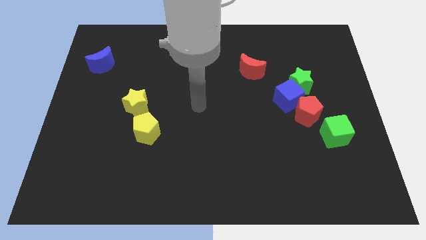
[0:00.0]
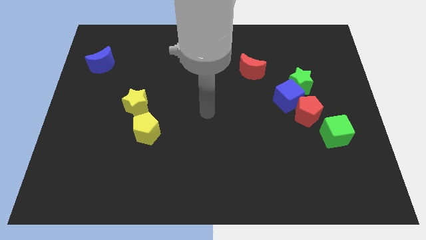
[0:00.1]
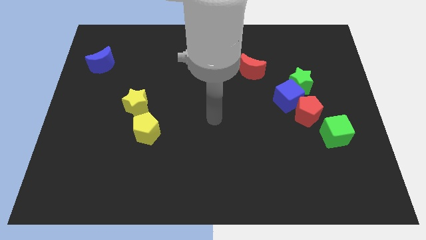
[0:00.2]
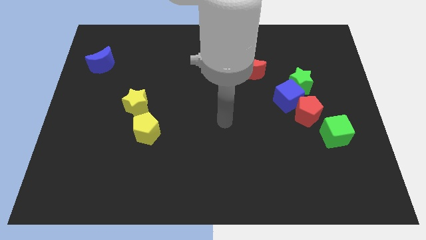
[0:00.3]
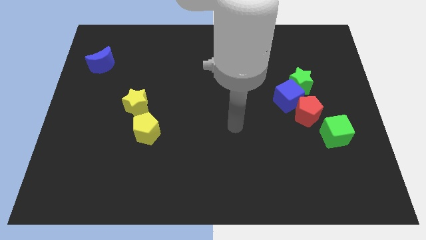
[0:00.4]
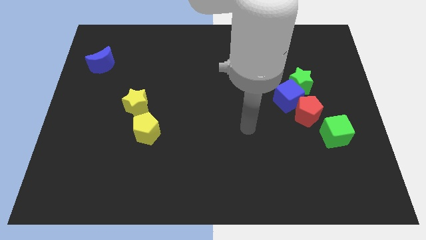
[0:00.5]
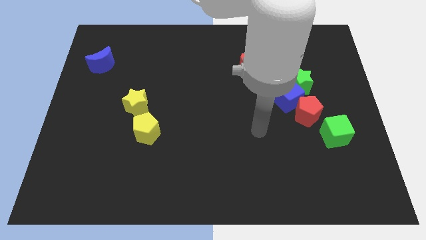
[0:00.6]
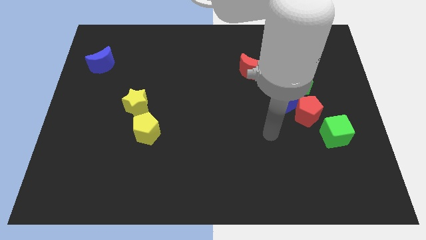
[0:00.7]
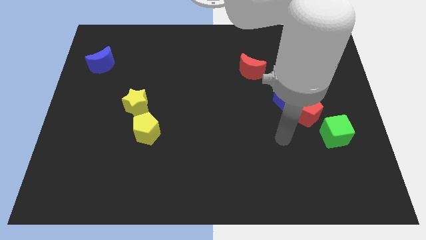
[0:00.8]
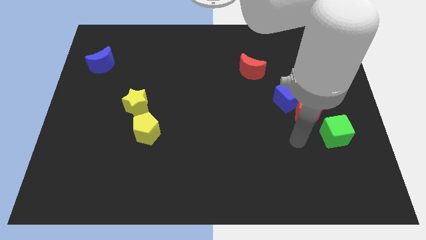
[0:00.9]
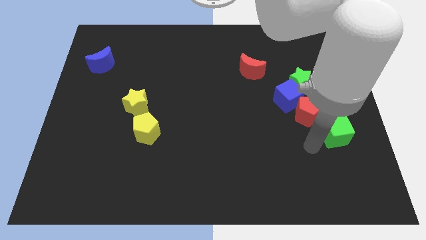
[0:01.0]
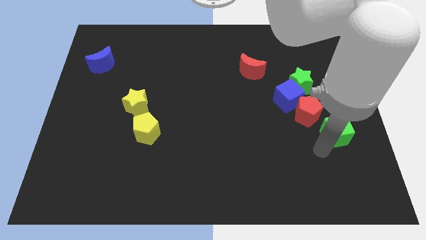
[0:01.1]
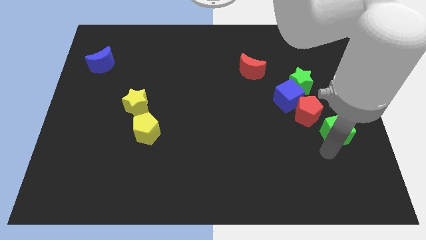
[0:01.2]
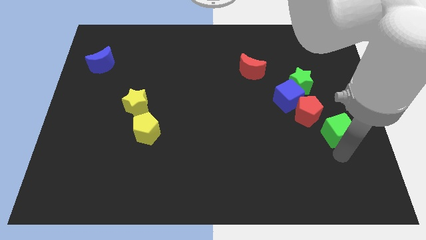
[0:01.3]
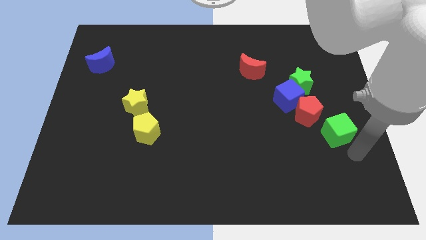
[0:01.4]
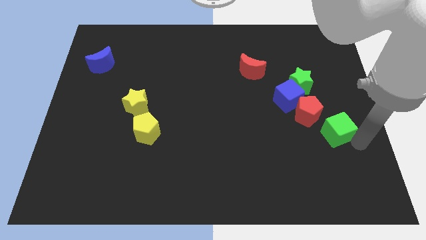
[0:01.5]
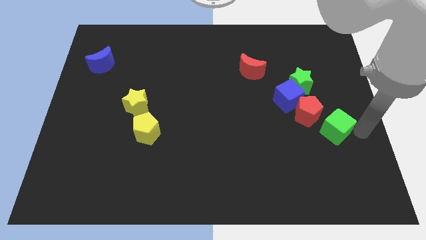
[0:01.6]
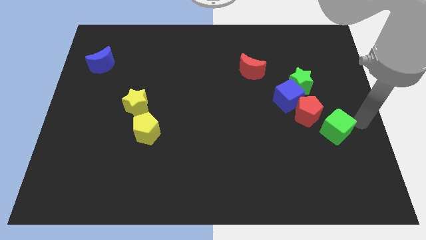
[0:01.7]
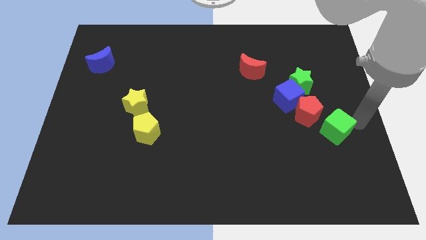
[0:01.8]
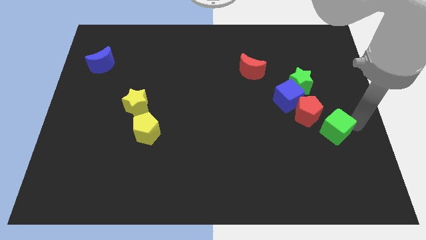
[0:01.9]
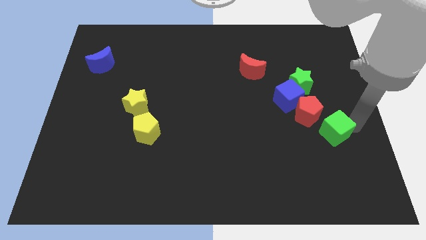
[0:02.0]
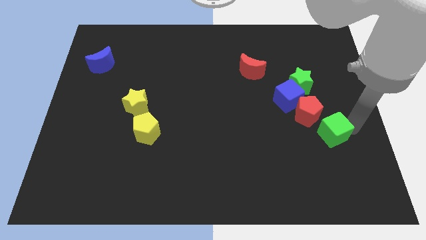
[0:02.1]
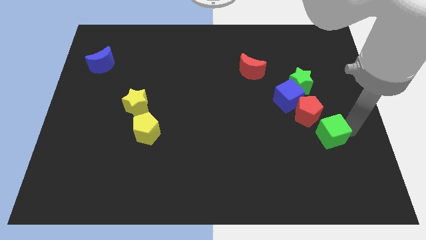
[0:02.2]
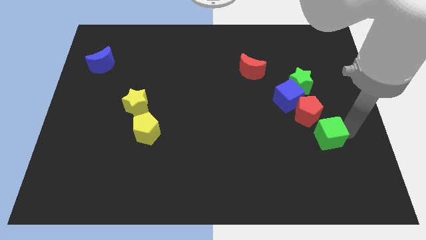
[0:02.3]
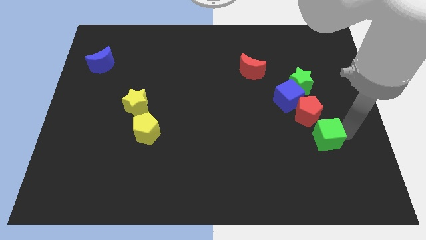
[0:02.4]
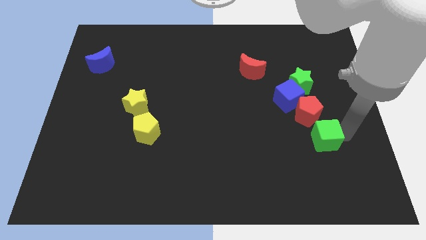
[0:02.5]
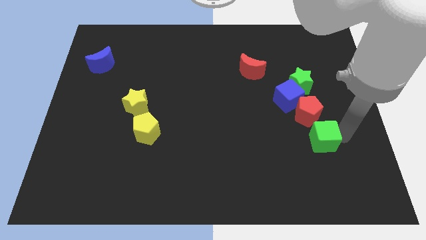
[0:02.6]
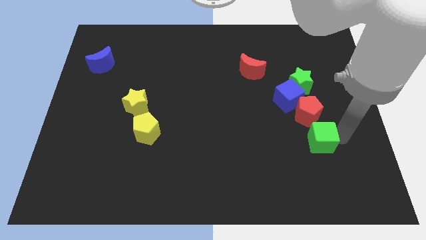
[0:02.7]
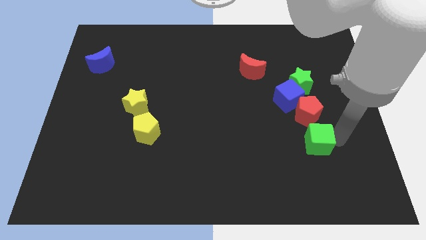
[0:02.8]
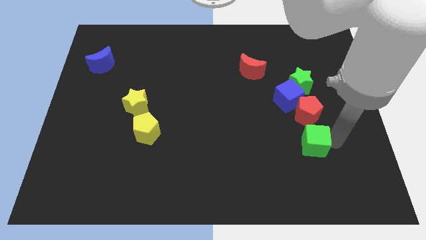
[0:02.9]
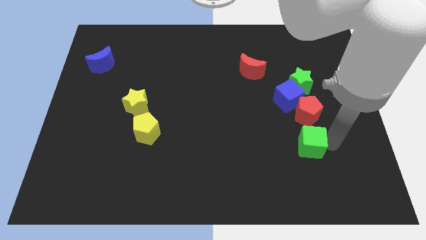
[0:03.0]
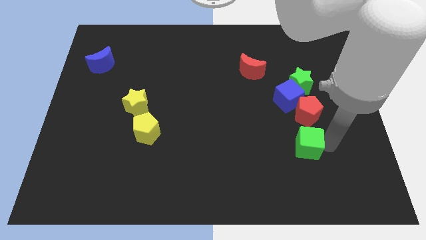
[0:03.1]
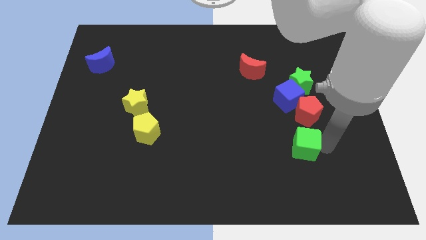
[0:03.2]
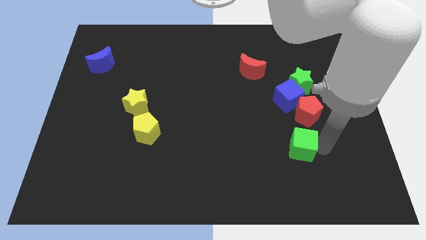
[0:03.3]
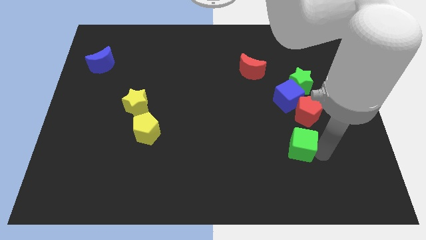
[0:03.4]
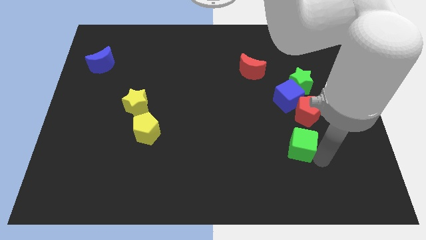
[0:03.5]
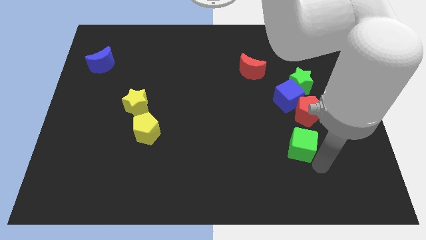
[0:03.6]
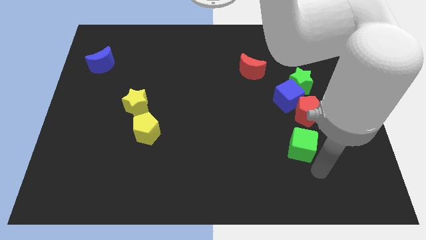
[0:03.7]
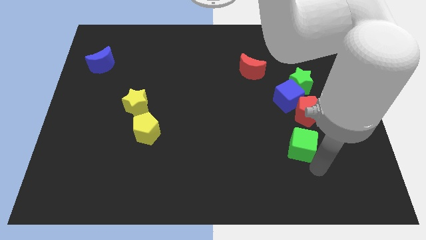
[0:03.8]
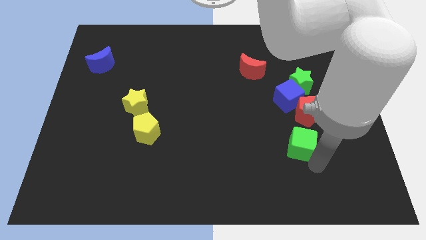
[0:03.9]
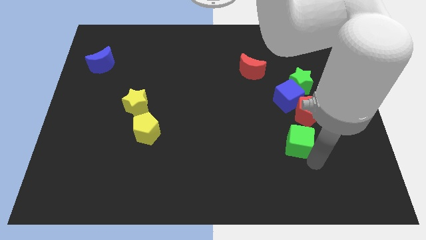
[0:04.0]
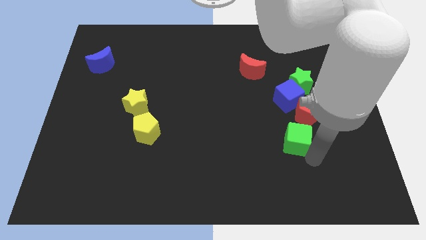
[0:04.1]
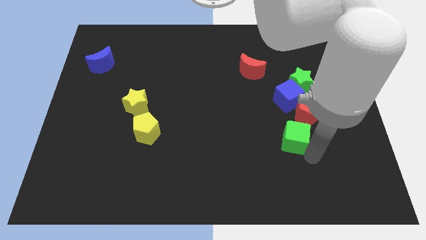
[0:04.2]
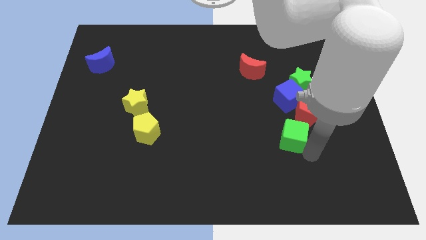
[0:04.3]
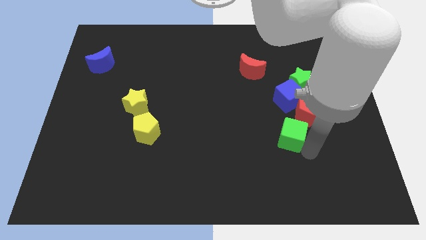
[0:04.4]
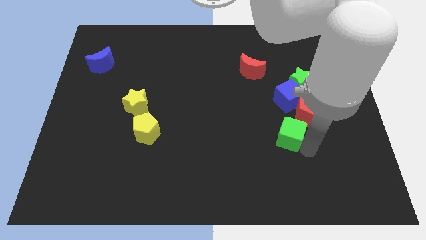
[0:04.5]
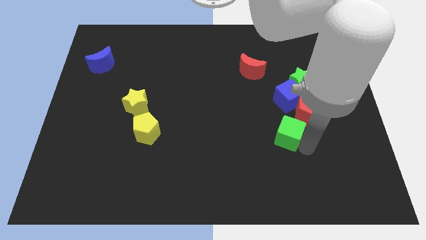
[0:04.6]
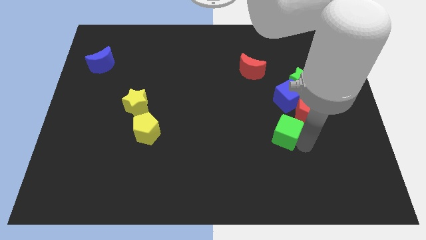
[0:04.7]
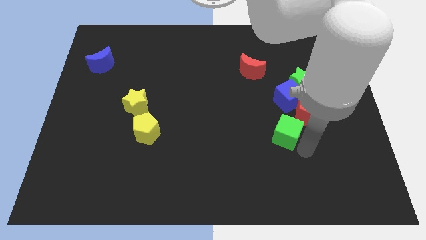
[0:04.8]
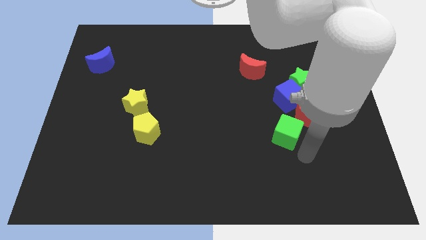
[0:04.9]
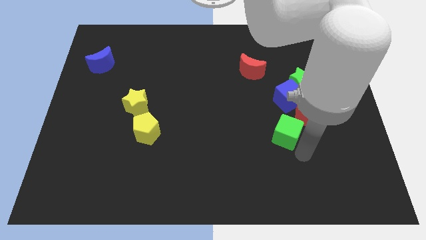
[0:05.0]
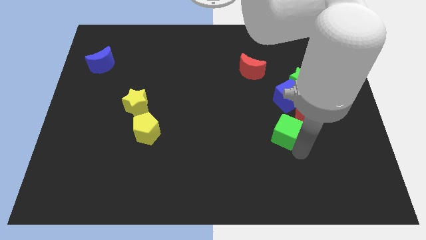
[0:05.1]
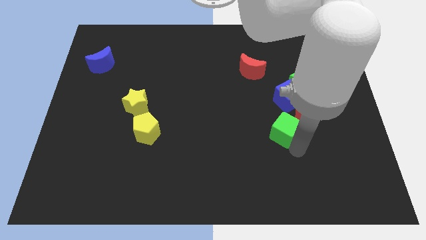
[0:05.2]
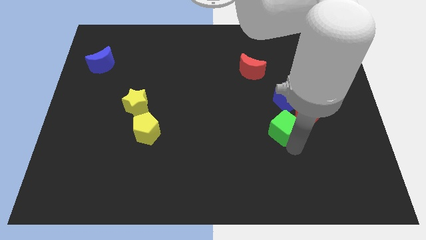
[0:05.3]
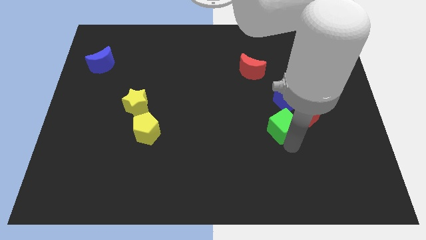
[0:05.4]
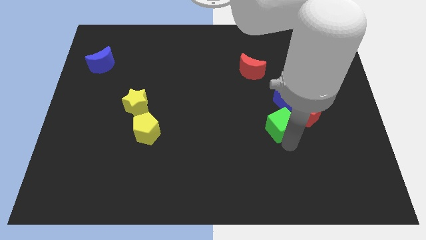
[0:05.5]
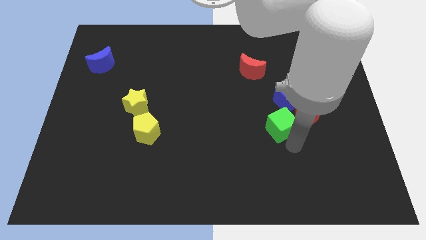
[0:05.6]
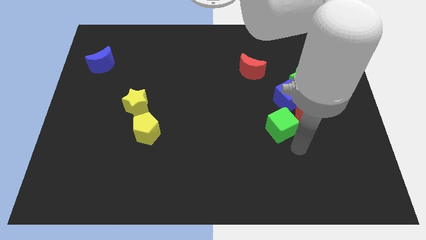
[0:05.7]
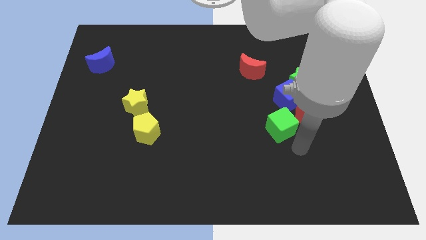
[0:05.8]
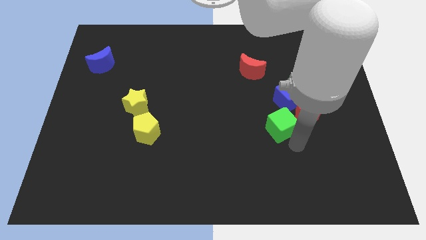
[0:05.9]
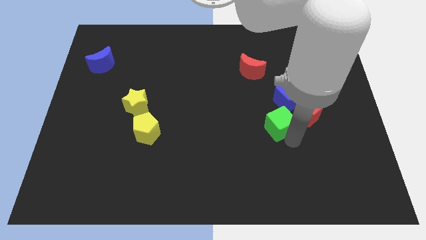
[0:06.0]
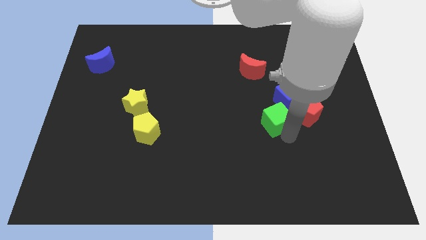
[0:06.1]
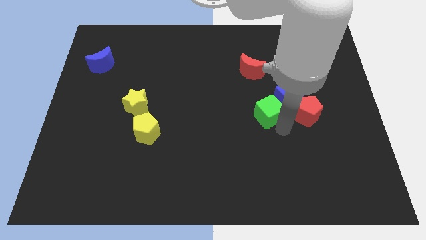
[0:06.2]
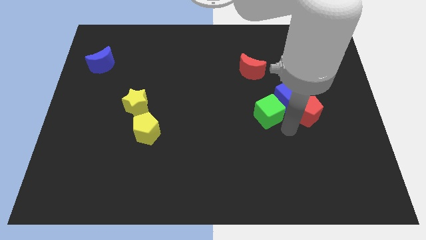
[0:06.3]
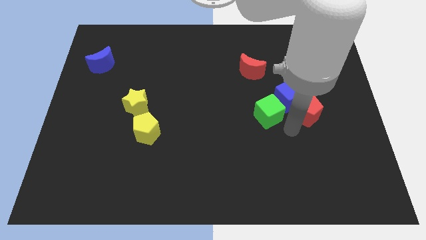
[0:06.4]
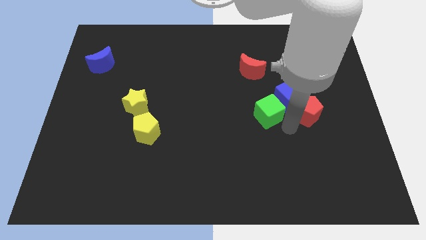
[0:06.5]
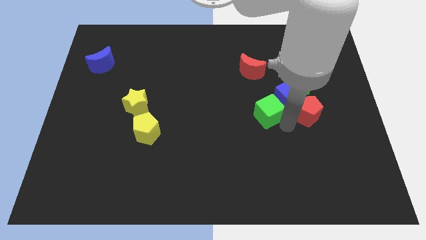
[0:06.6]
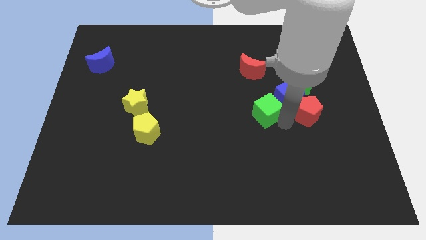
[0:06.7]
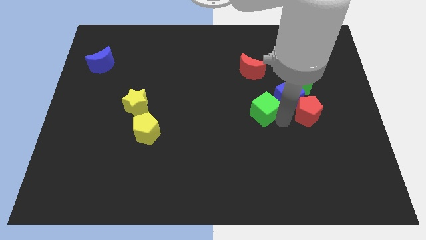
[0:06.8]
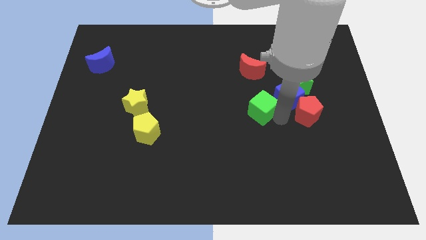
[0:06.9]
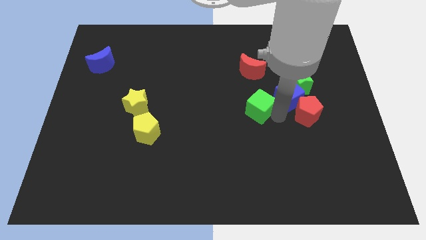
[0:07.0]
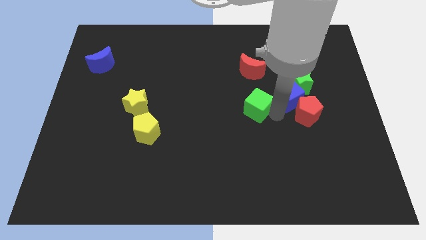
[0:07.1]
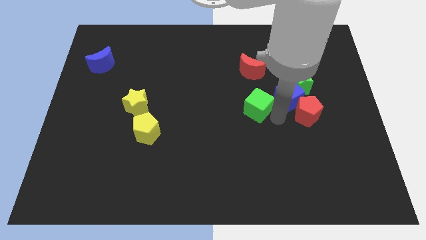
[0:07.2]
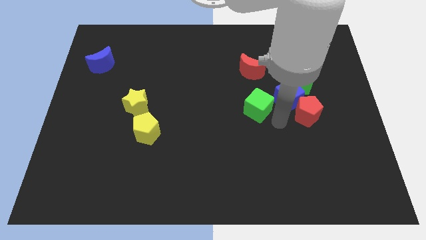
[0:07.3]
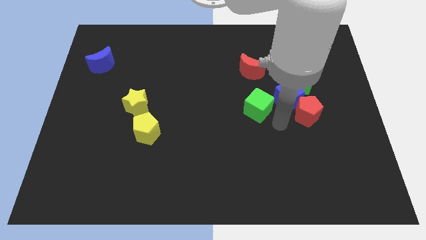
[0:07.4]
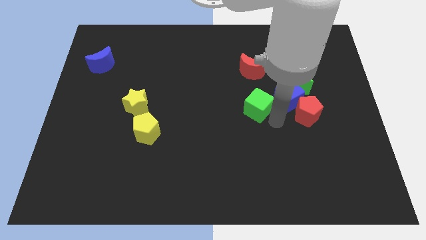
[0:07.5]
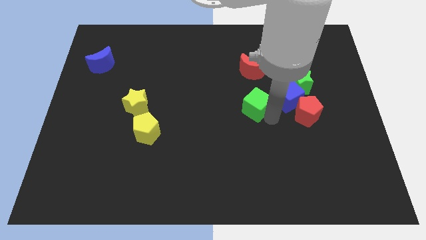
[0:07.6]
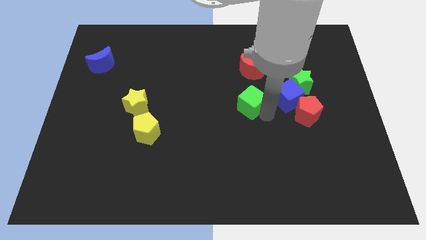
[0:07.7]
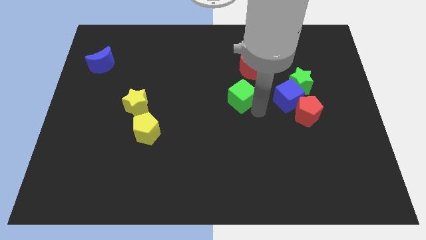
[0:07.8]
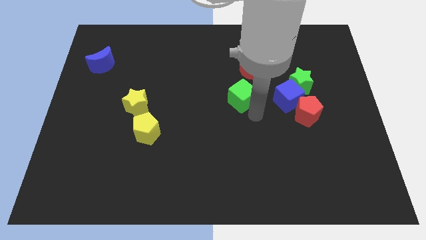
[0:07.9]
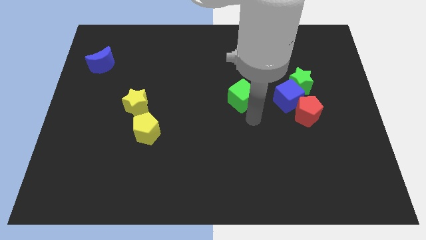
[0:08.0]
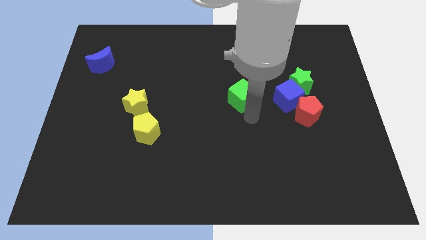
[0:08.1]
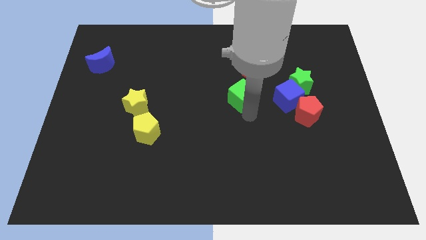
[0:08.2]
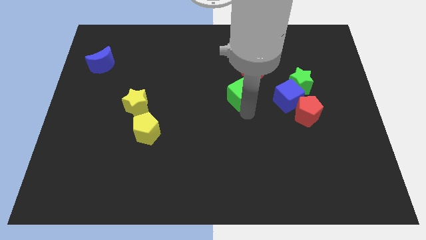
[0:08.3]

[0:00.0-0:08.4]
slide the green cube diagonally up and left
